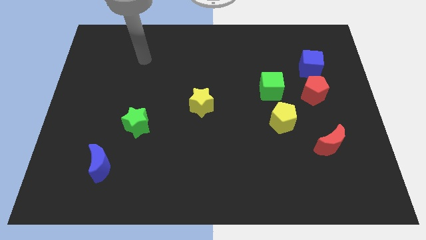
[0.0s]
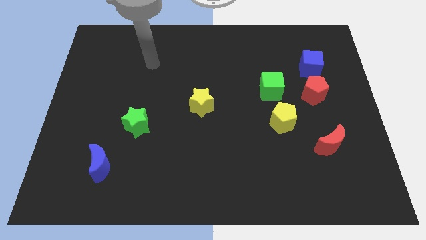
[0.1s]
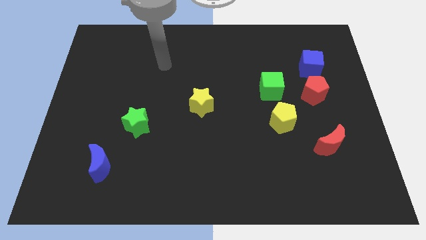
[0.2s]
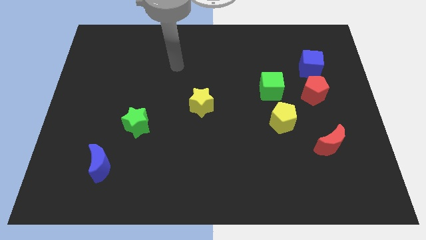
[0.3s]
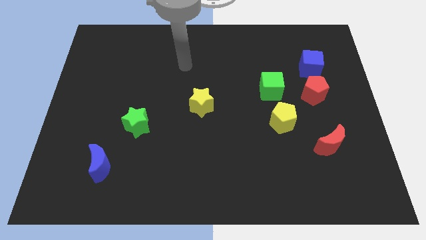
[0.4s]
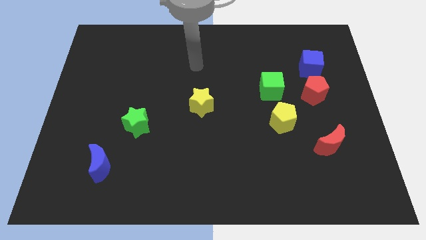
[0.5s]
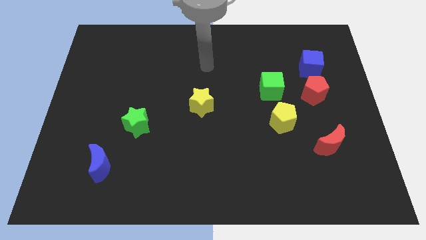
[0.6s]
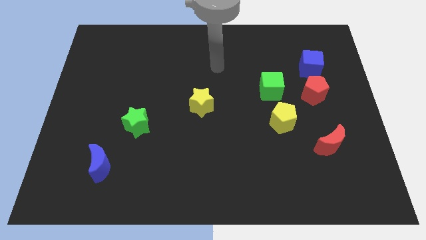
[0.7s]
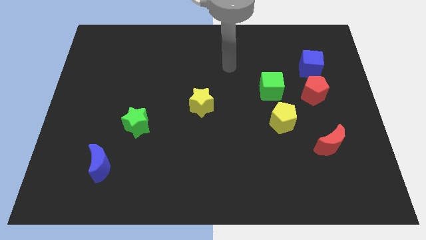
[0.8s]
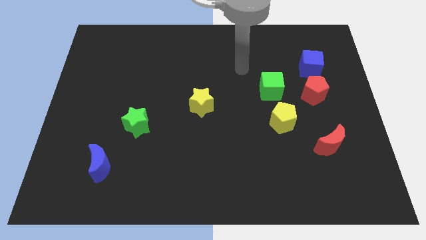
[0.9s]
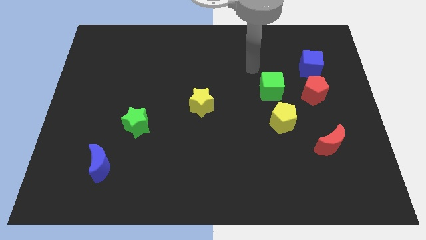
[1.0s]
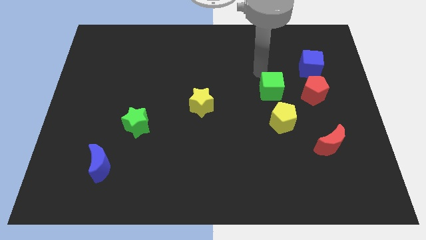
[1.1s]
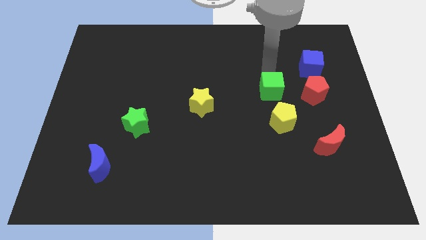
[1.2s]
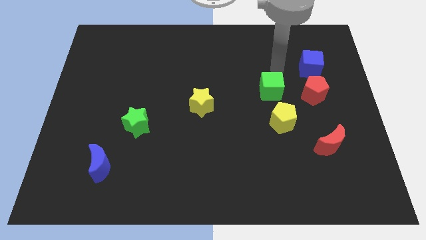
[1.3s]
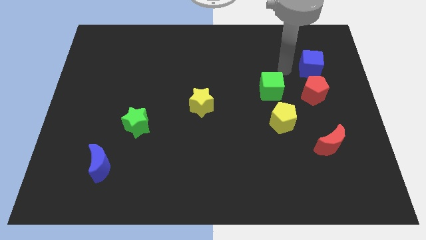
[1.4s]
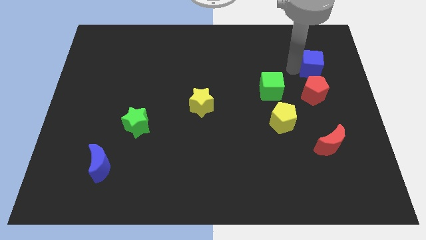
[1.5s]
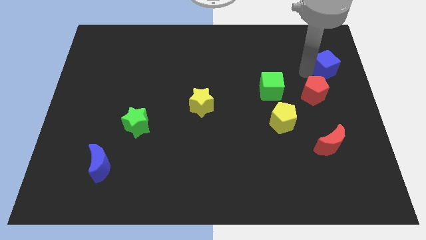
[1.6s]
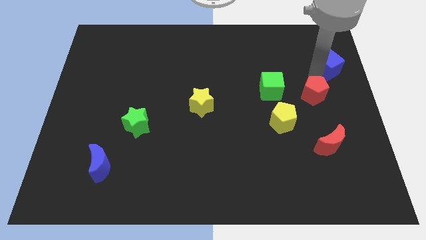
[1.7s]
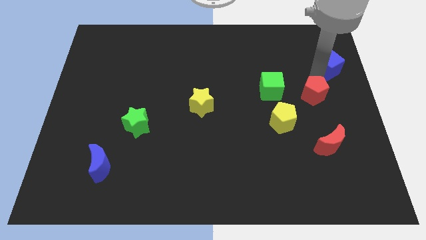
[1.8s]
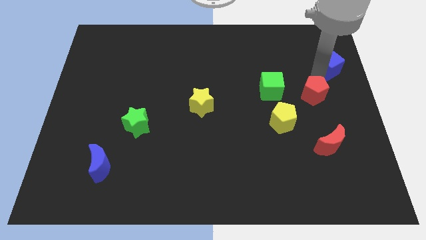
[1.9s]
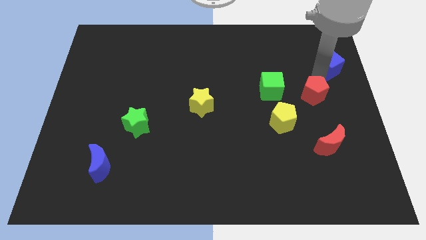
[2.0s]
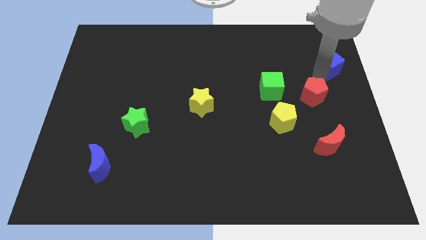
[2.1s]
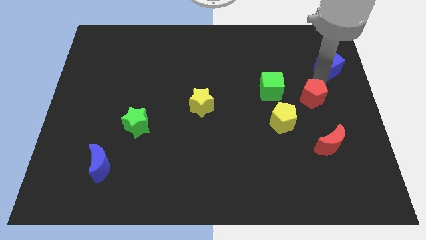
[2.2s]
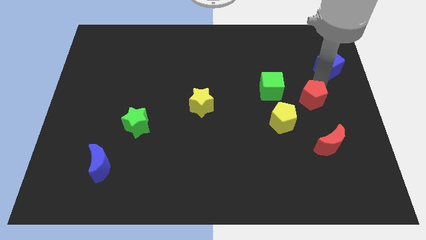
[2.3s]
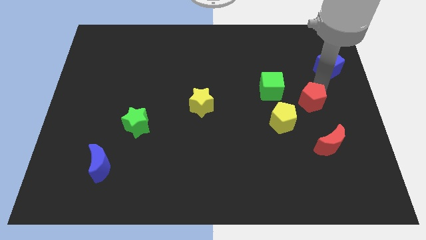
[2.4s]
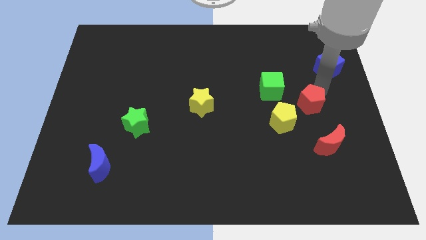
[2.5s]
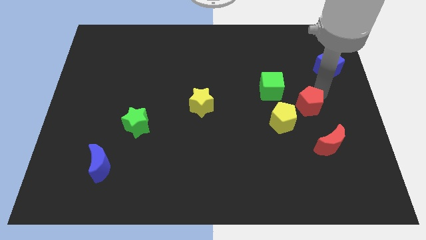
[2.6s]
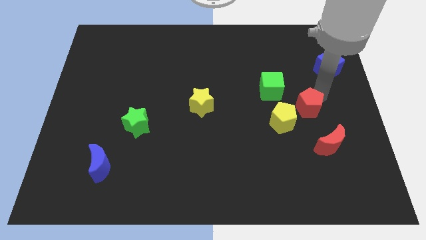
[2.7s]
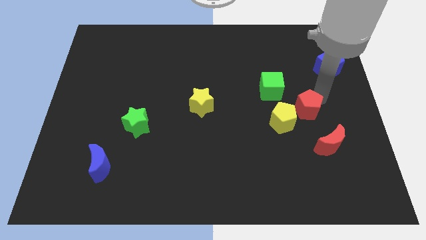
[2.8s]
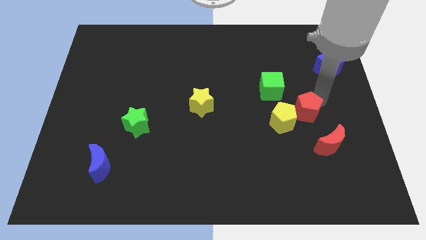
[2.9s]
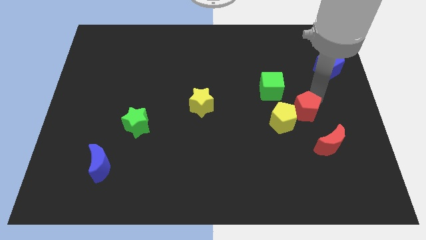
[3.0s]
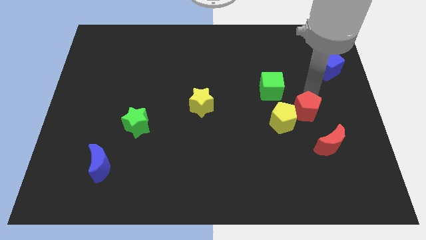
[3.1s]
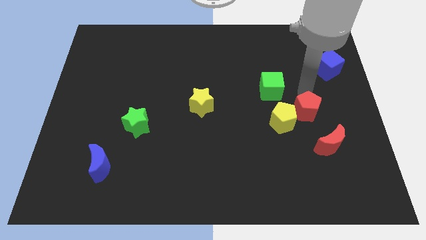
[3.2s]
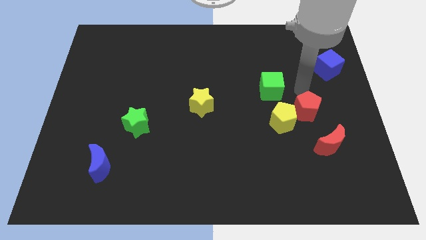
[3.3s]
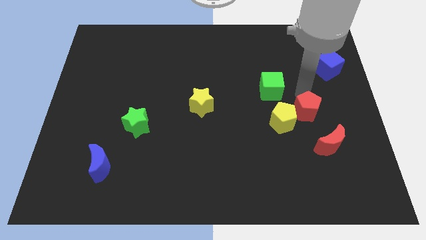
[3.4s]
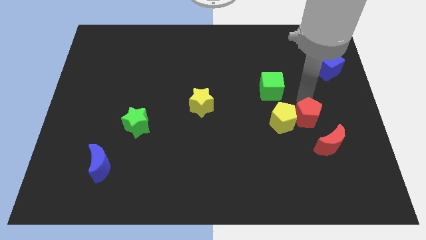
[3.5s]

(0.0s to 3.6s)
slightly slide the red pentagon downwards

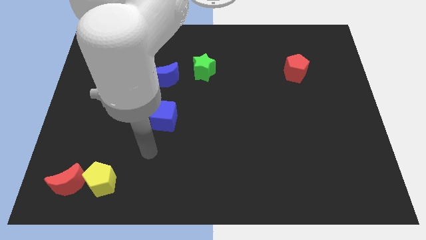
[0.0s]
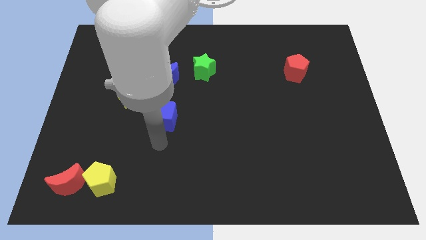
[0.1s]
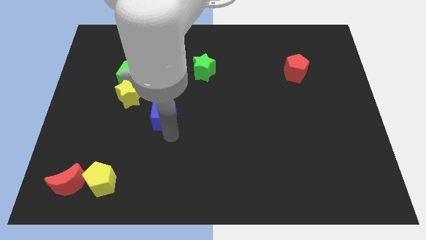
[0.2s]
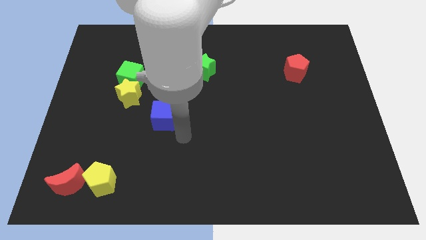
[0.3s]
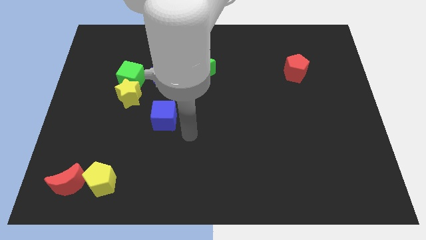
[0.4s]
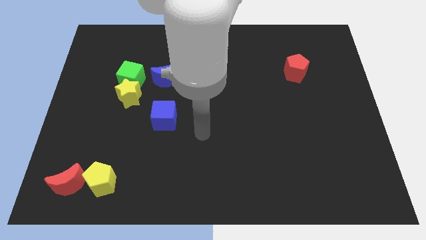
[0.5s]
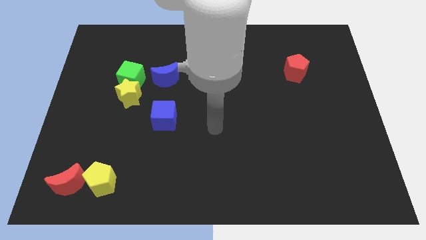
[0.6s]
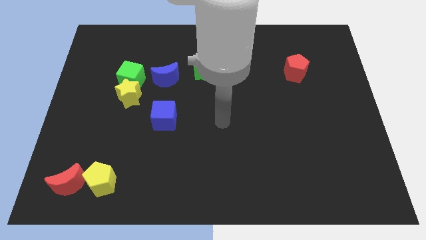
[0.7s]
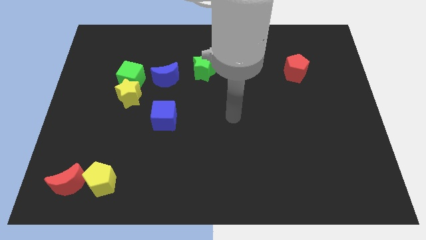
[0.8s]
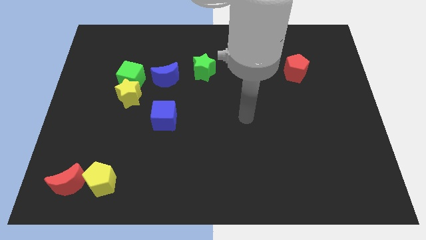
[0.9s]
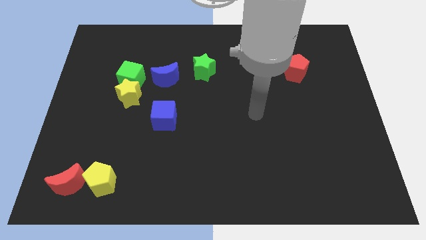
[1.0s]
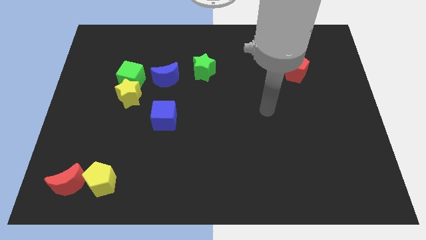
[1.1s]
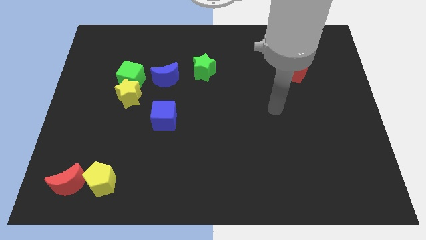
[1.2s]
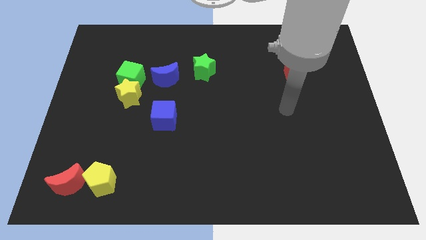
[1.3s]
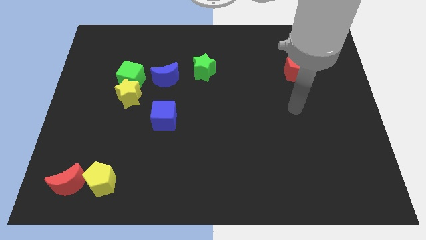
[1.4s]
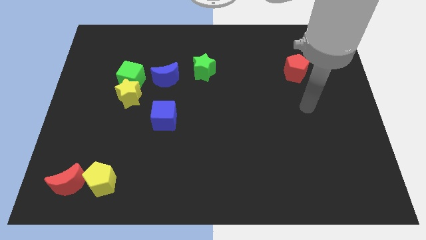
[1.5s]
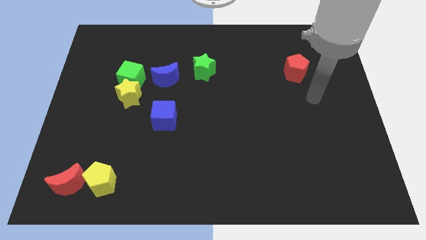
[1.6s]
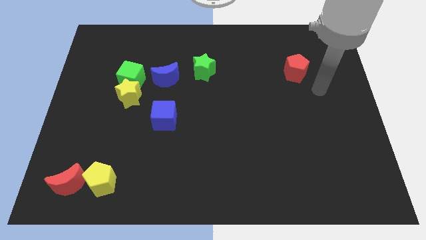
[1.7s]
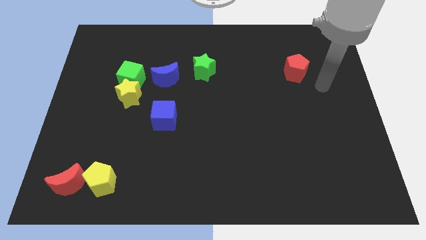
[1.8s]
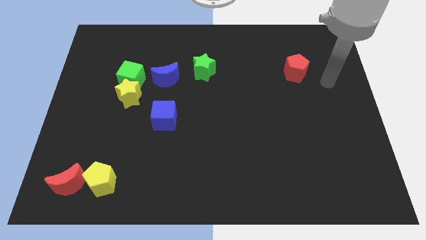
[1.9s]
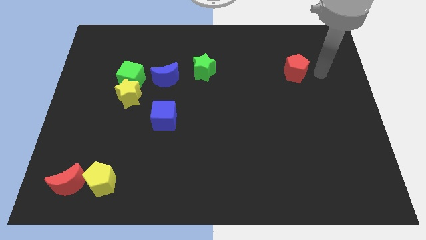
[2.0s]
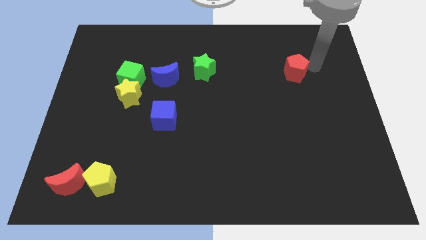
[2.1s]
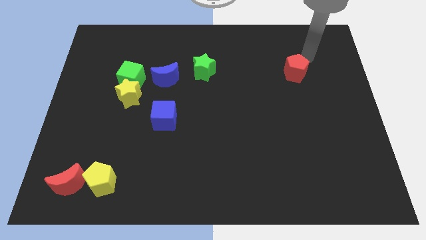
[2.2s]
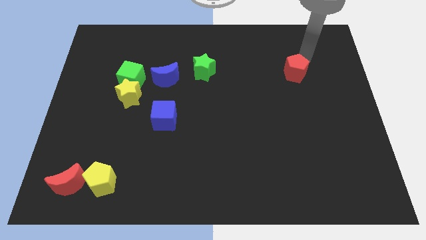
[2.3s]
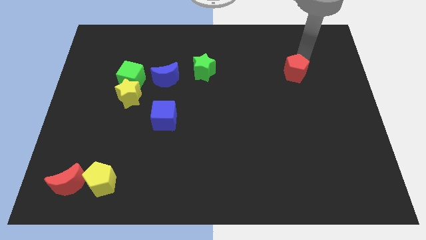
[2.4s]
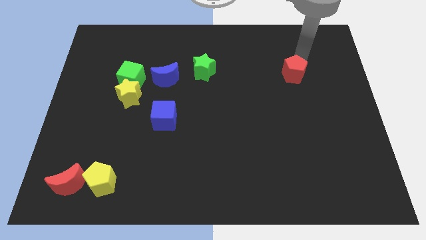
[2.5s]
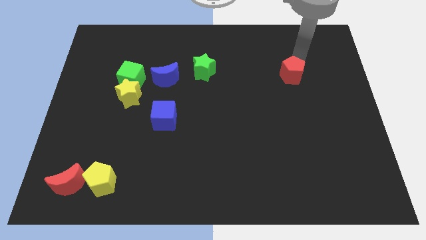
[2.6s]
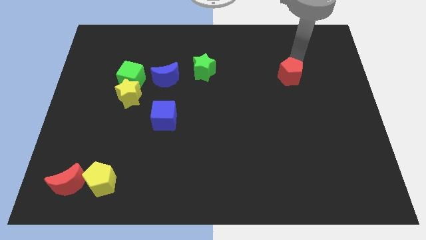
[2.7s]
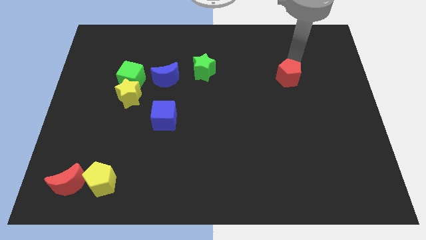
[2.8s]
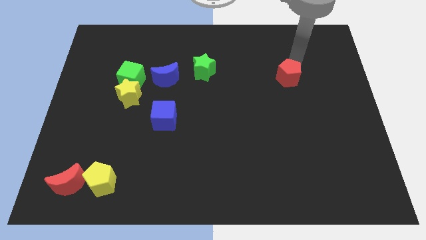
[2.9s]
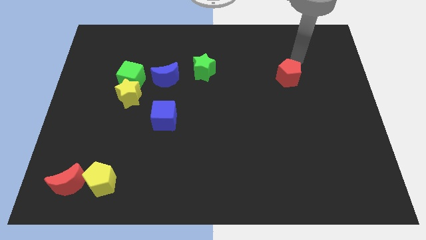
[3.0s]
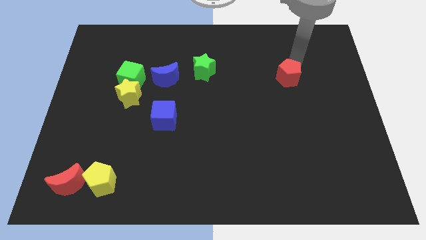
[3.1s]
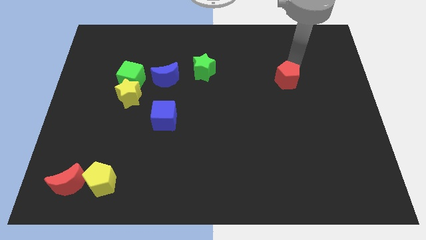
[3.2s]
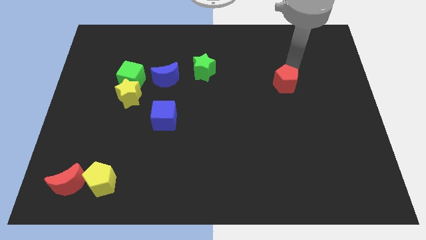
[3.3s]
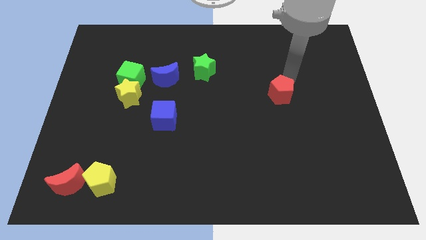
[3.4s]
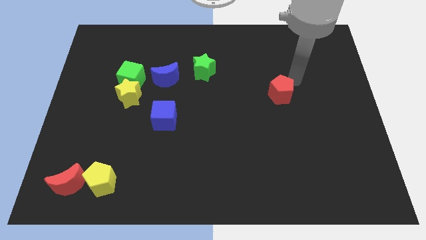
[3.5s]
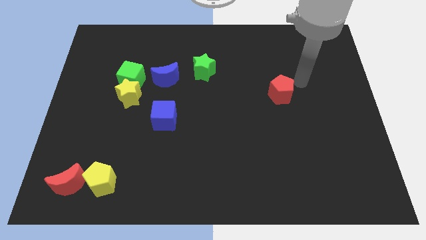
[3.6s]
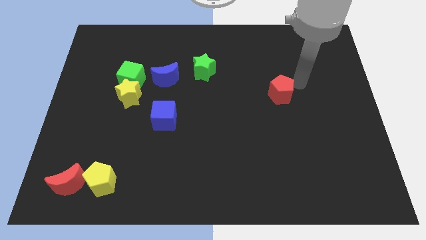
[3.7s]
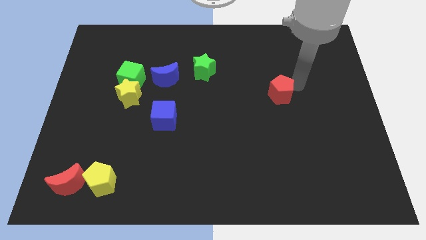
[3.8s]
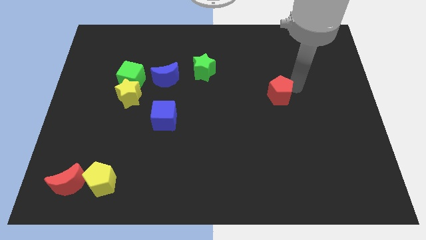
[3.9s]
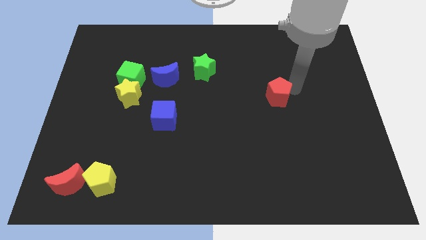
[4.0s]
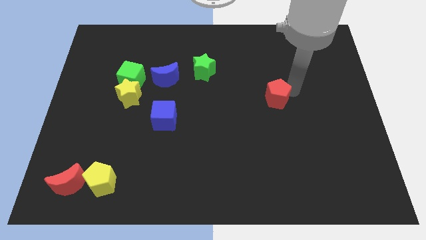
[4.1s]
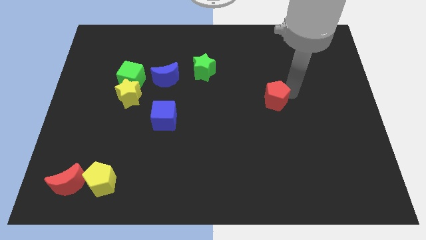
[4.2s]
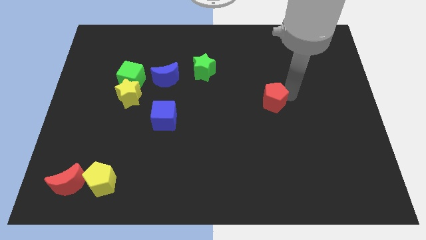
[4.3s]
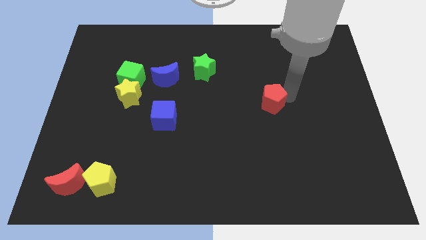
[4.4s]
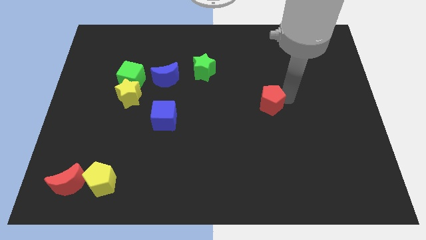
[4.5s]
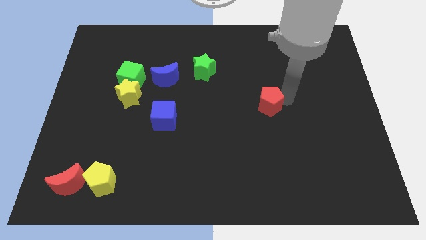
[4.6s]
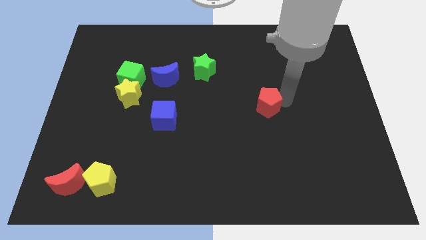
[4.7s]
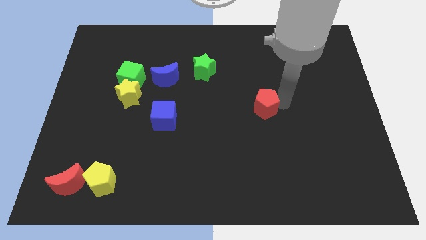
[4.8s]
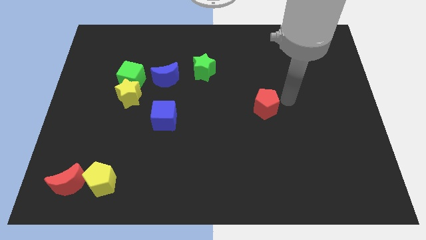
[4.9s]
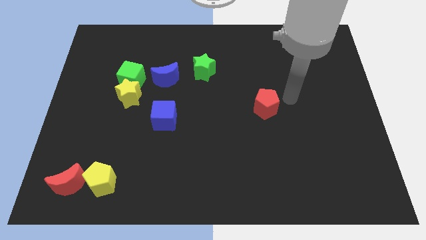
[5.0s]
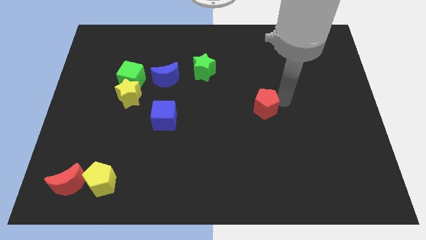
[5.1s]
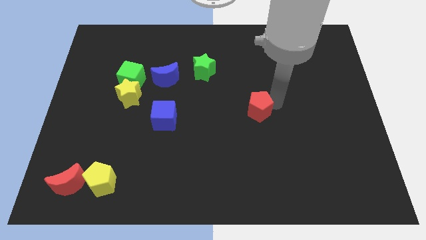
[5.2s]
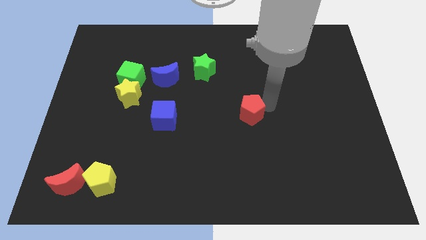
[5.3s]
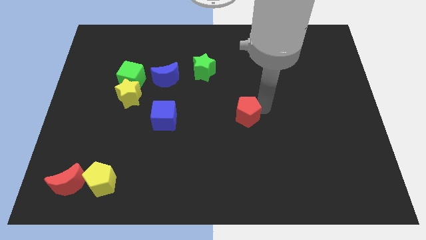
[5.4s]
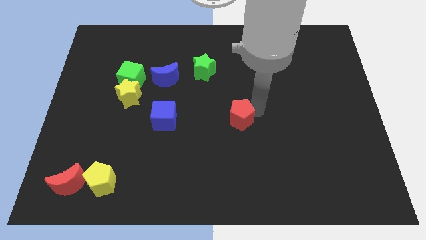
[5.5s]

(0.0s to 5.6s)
slide the red pentagon diagonally downwards and left
